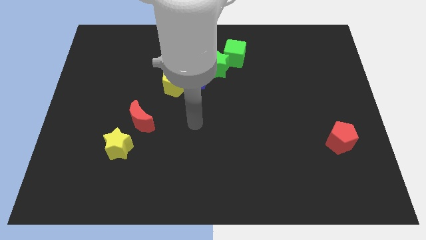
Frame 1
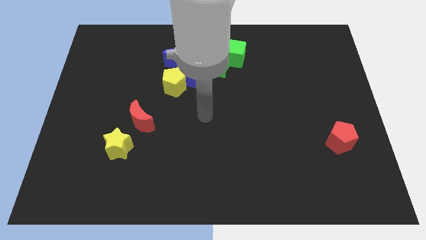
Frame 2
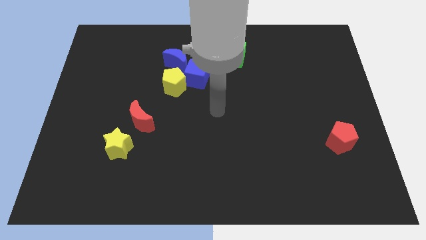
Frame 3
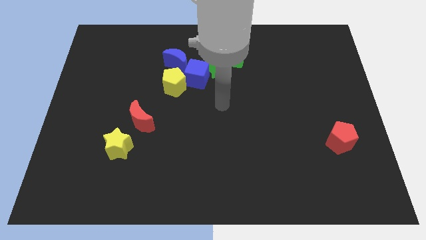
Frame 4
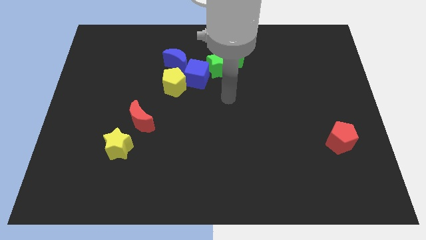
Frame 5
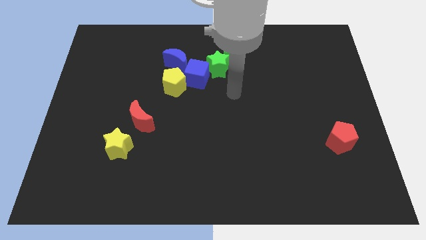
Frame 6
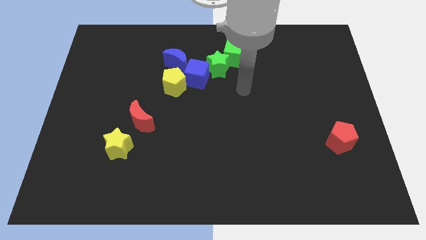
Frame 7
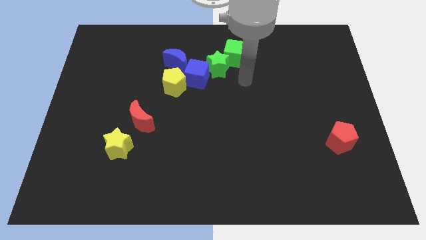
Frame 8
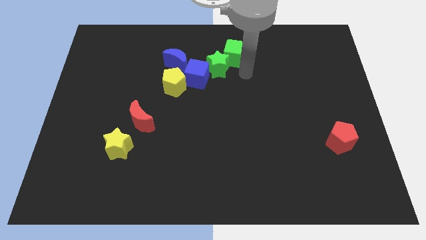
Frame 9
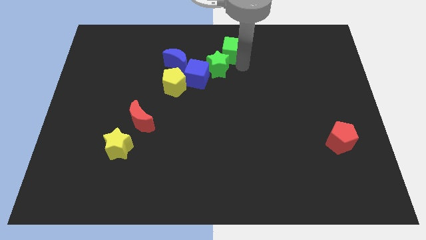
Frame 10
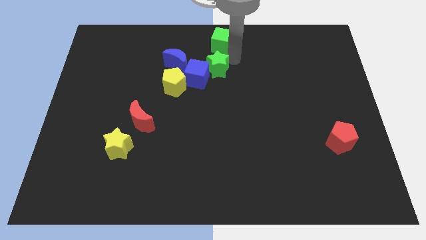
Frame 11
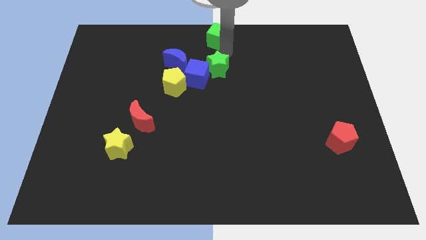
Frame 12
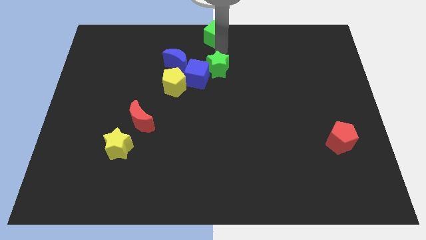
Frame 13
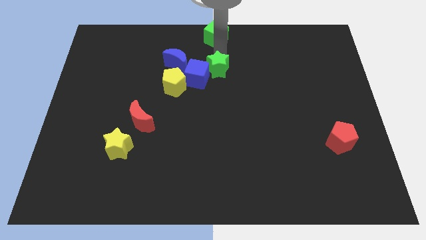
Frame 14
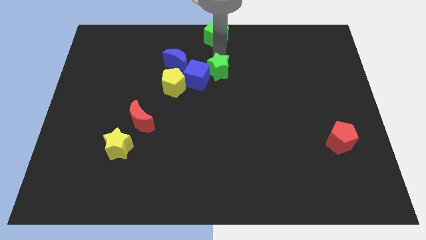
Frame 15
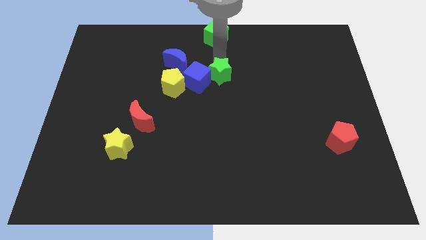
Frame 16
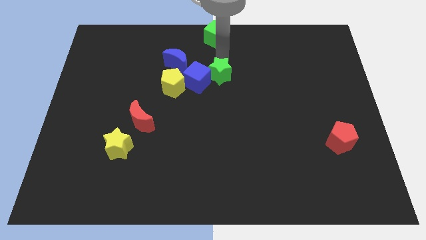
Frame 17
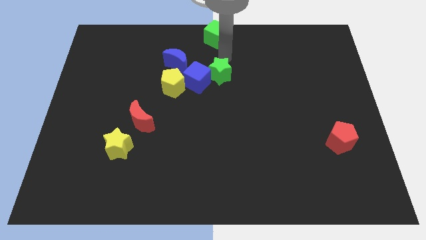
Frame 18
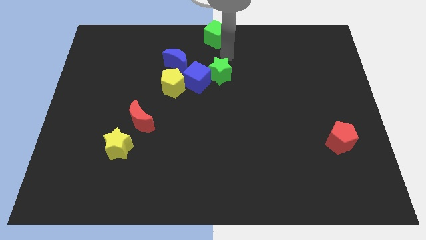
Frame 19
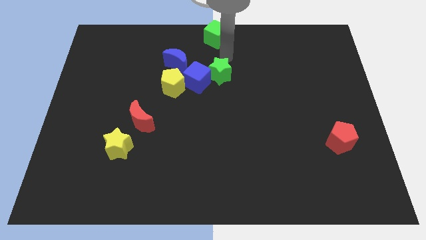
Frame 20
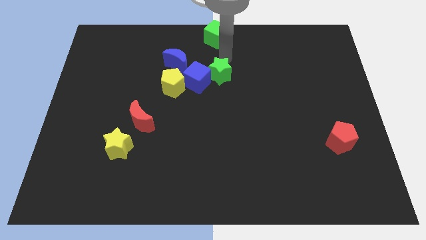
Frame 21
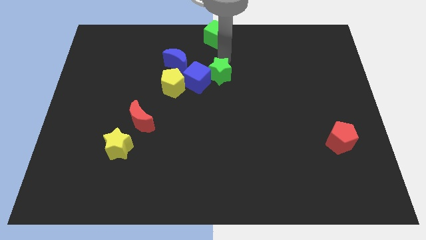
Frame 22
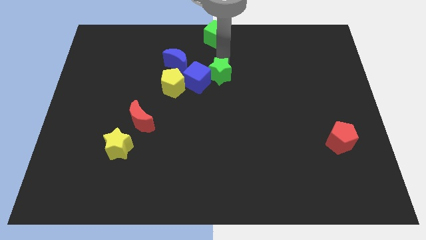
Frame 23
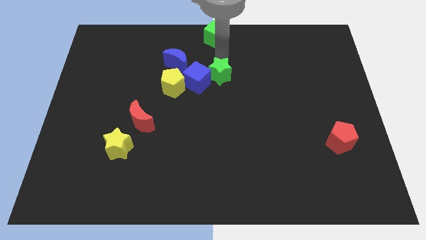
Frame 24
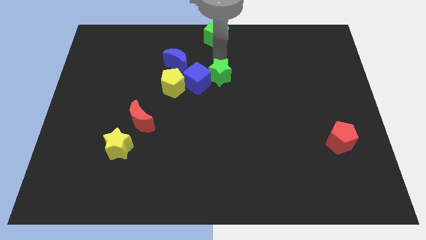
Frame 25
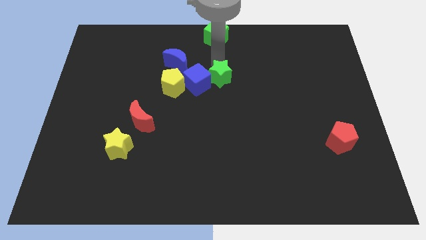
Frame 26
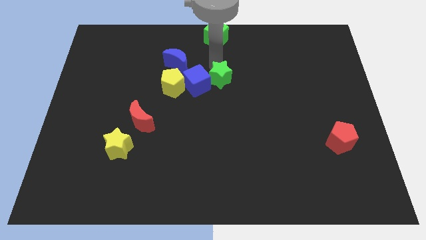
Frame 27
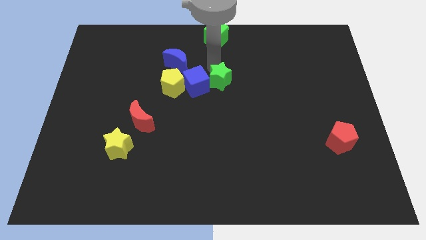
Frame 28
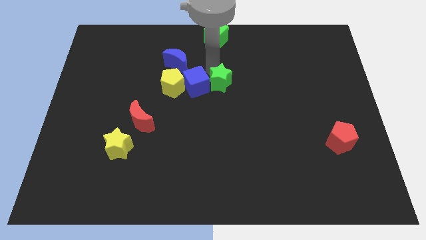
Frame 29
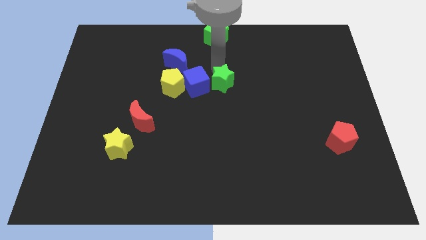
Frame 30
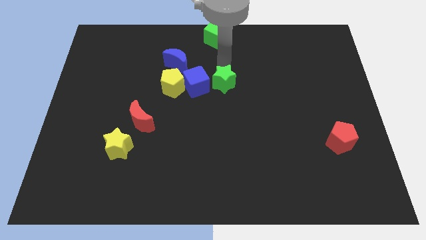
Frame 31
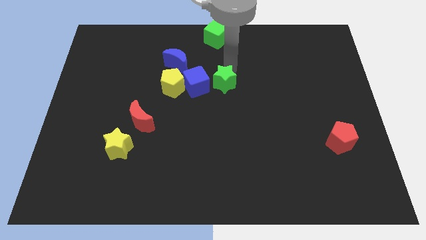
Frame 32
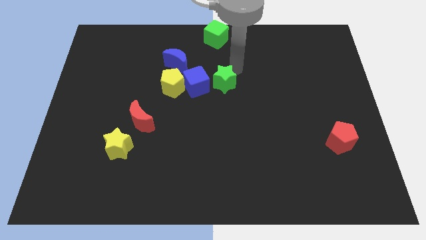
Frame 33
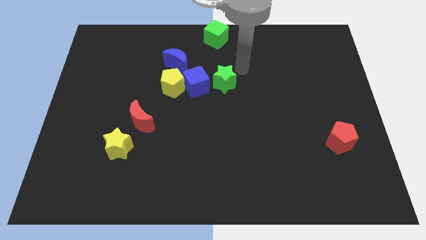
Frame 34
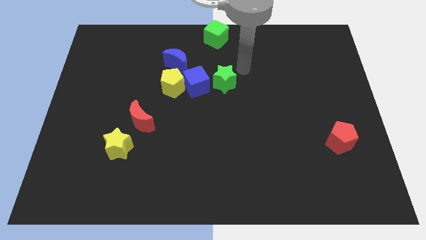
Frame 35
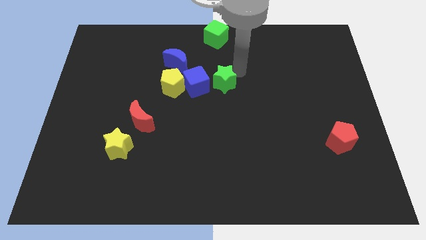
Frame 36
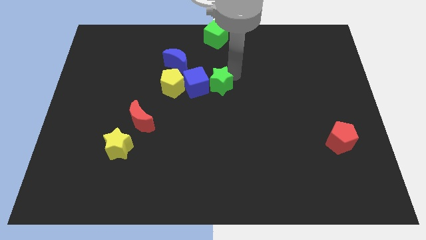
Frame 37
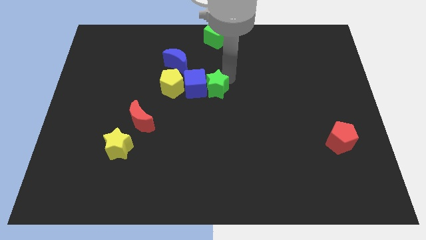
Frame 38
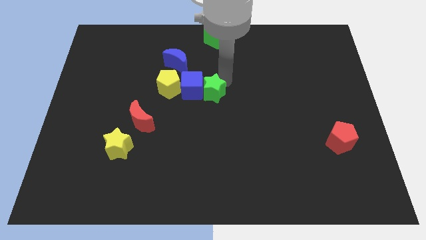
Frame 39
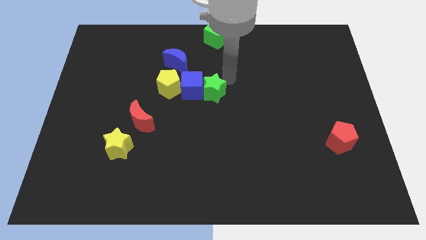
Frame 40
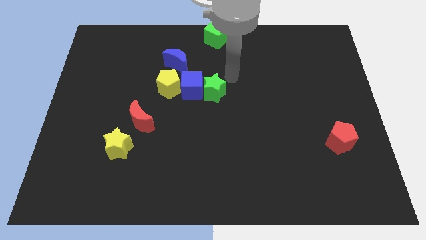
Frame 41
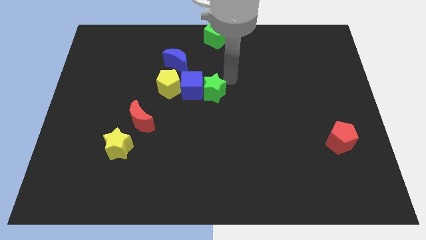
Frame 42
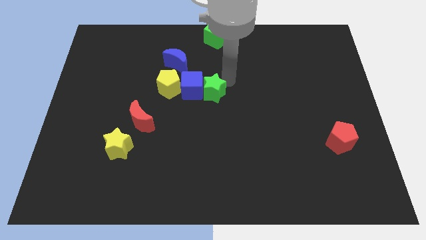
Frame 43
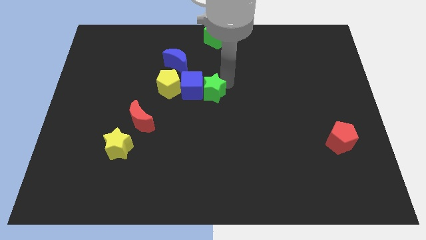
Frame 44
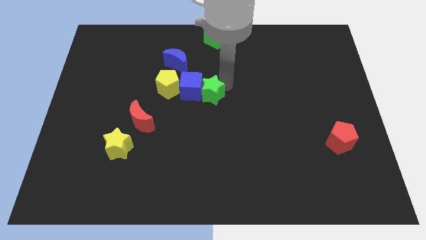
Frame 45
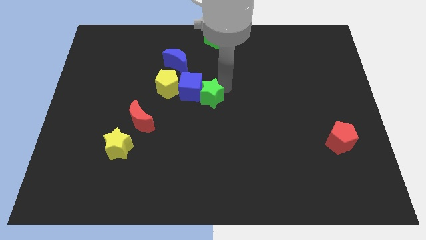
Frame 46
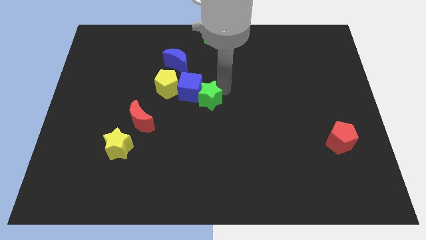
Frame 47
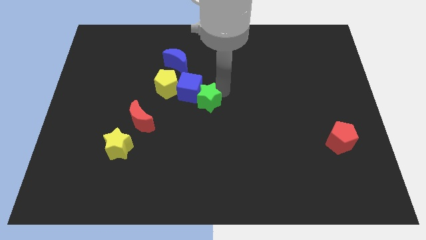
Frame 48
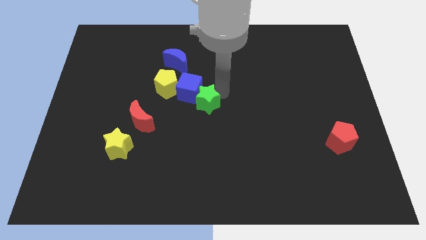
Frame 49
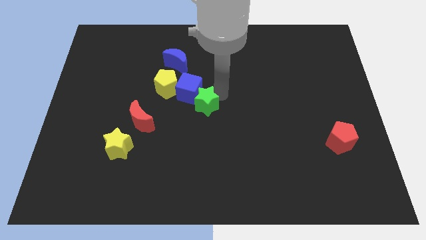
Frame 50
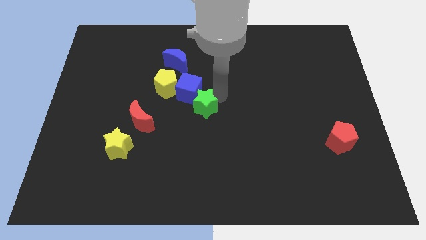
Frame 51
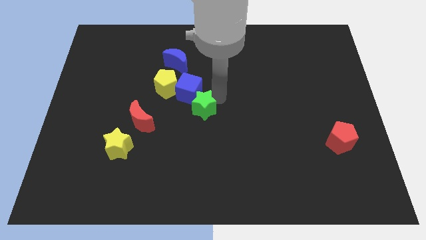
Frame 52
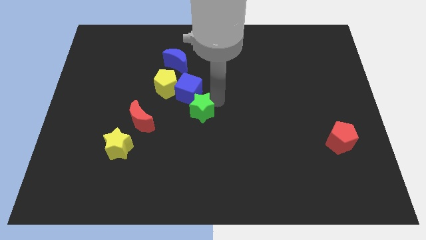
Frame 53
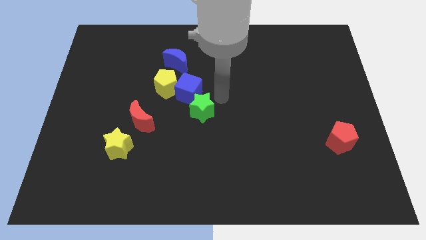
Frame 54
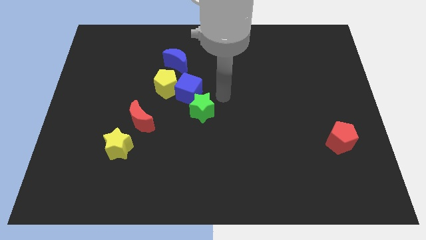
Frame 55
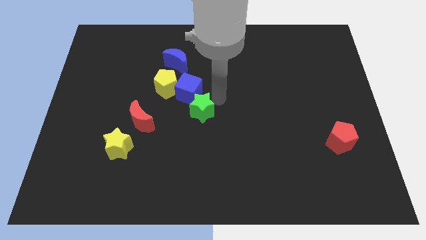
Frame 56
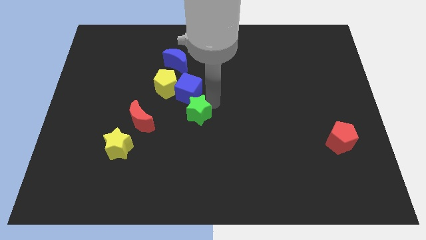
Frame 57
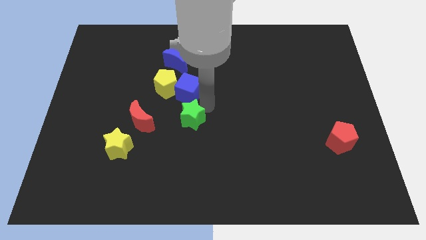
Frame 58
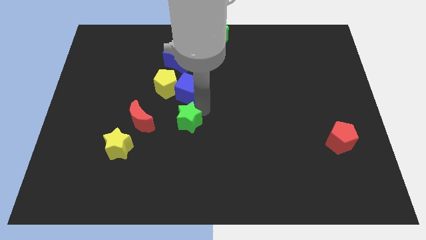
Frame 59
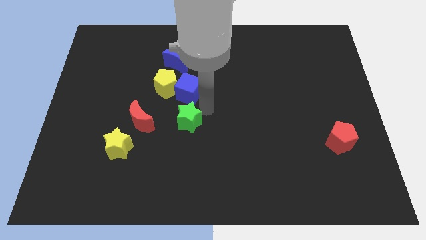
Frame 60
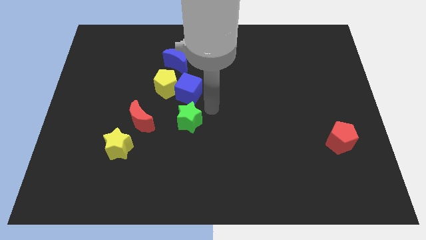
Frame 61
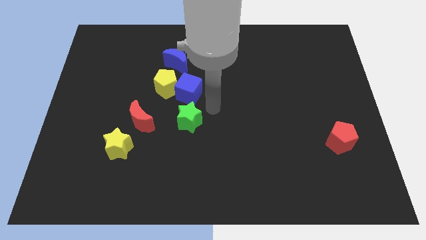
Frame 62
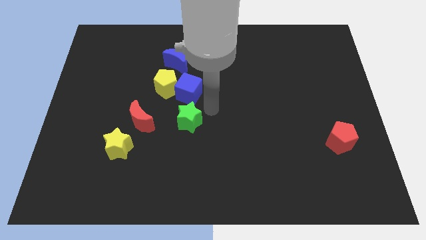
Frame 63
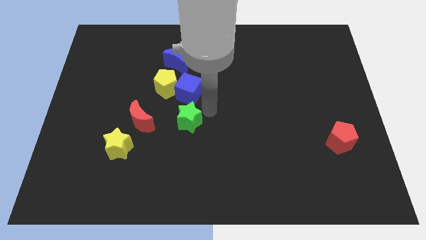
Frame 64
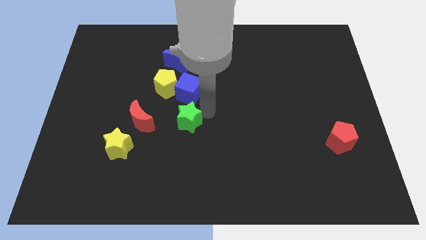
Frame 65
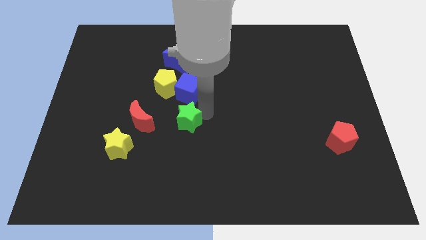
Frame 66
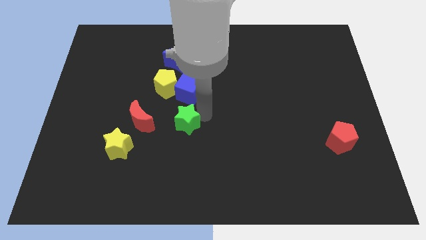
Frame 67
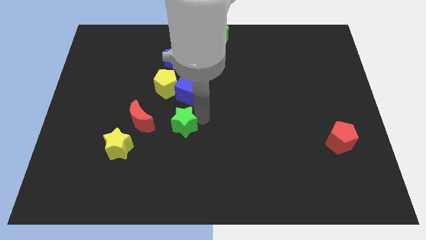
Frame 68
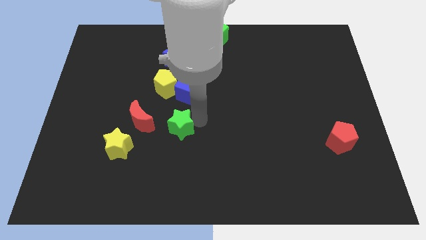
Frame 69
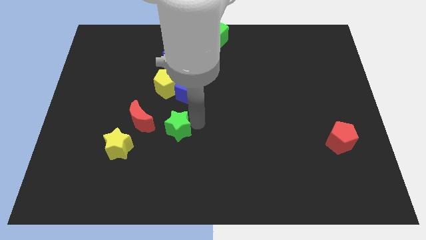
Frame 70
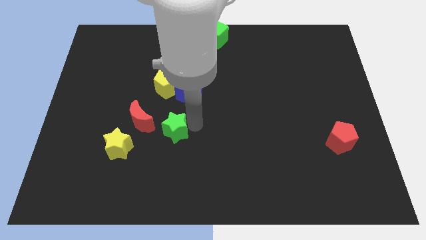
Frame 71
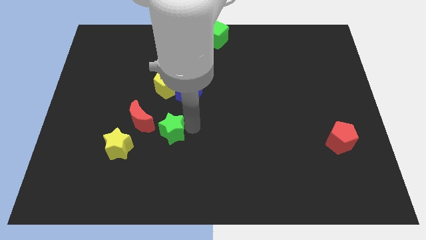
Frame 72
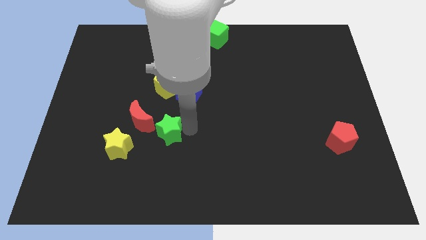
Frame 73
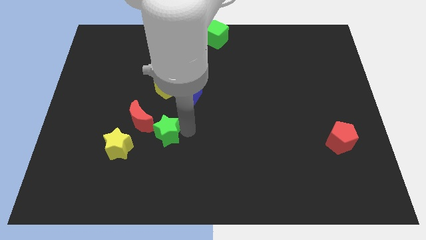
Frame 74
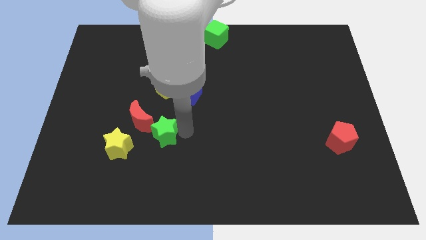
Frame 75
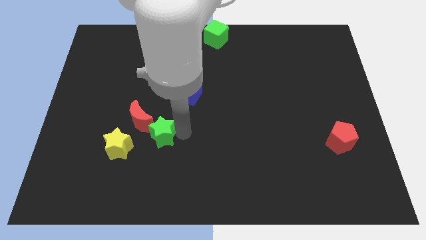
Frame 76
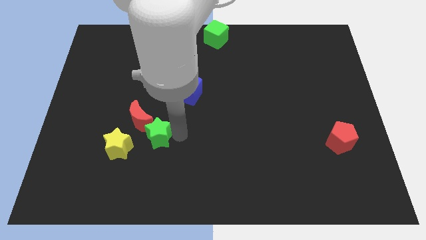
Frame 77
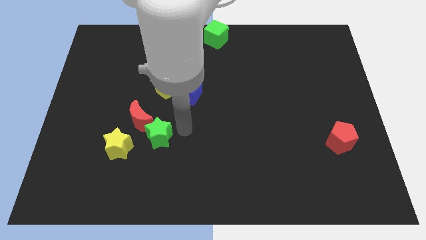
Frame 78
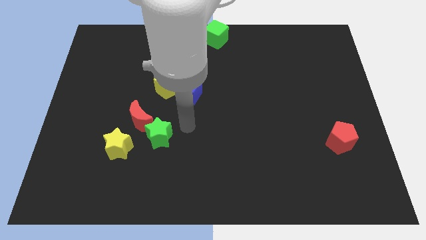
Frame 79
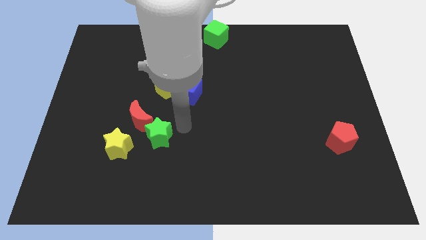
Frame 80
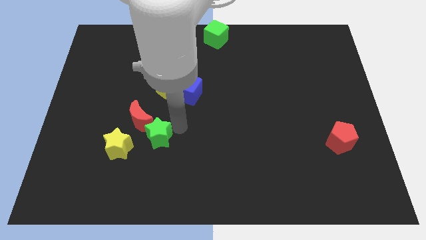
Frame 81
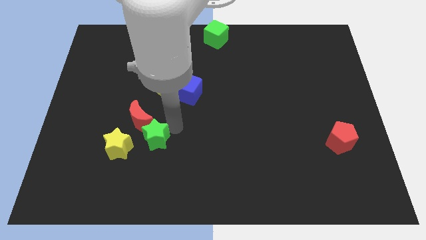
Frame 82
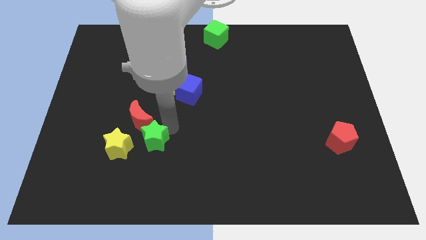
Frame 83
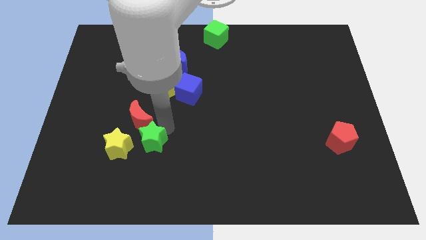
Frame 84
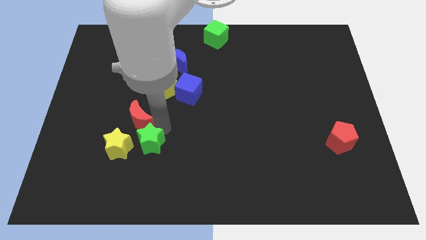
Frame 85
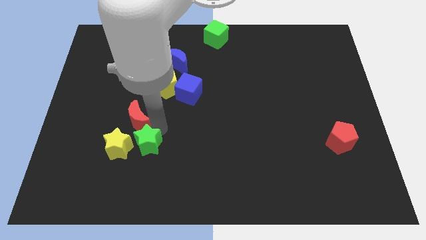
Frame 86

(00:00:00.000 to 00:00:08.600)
slide the green star close to the yellow star
